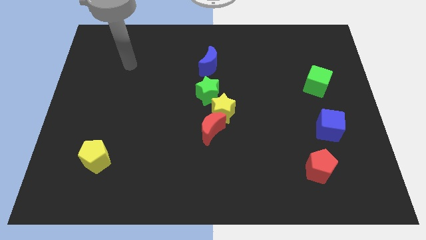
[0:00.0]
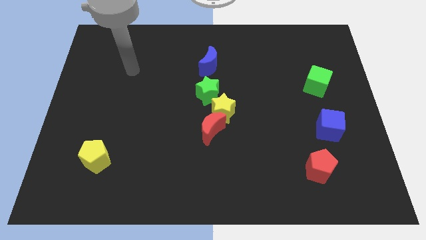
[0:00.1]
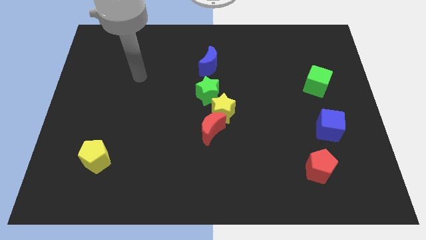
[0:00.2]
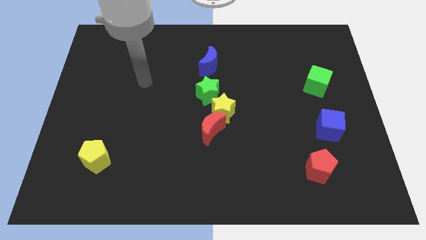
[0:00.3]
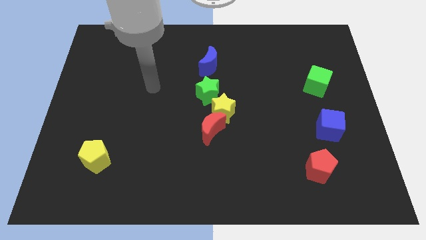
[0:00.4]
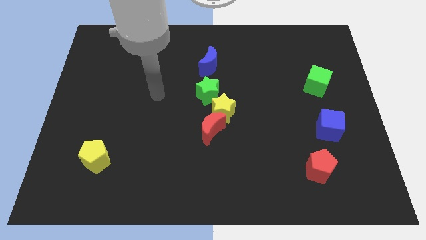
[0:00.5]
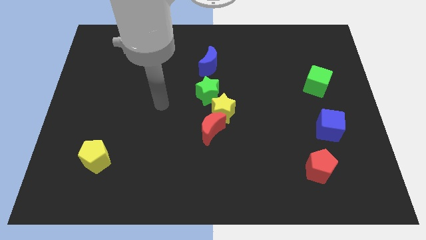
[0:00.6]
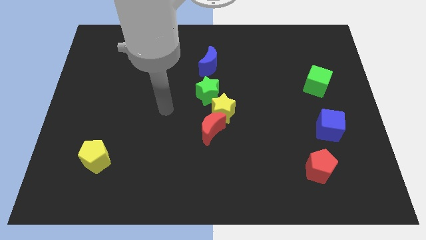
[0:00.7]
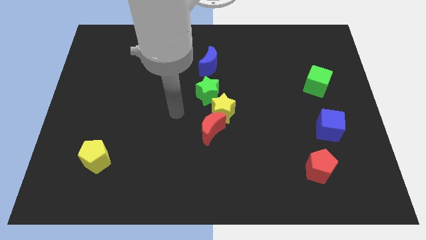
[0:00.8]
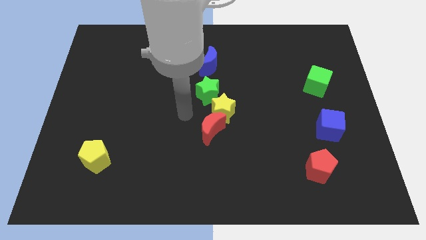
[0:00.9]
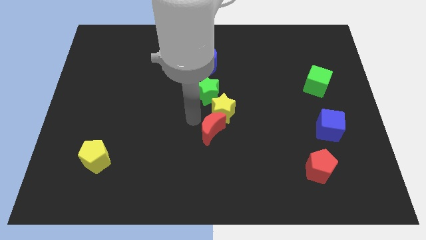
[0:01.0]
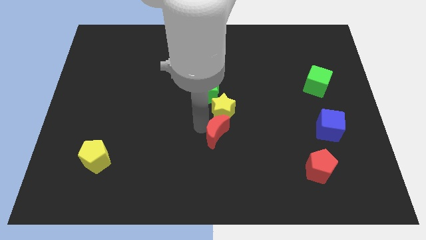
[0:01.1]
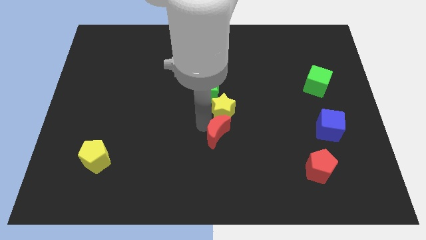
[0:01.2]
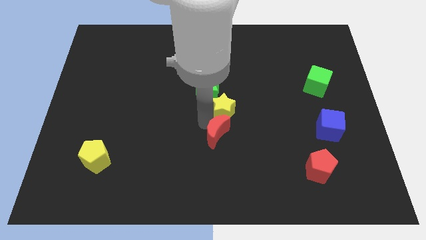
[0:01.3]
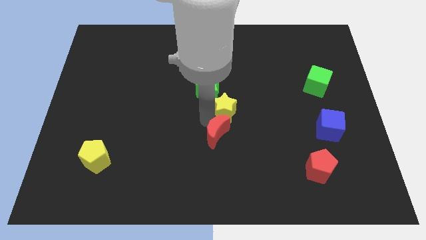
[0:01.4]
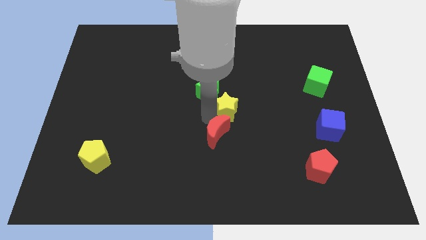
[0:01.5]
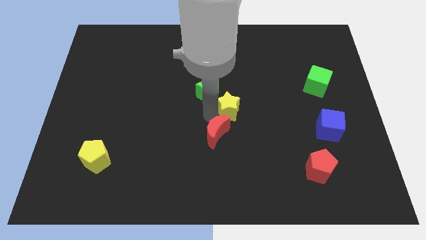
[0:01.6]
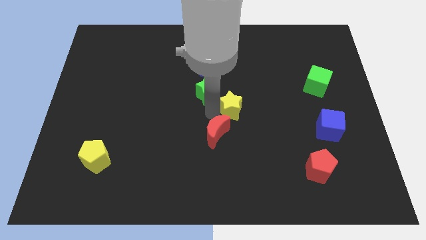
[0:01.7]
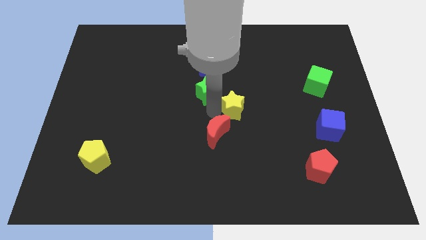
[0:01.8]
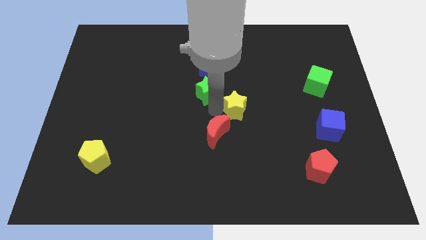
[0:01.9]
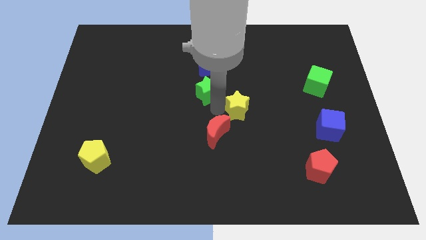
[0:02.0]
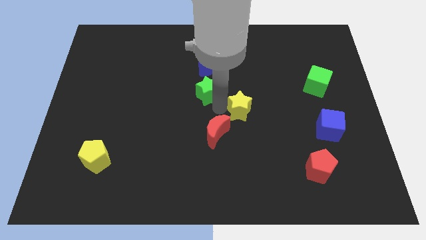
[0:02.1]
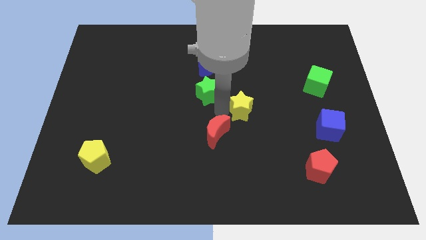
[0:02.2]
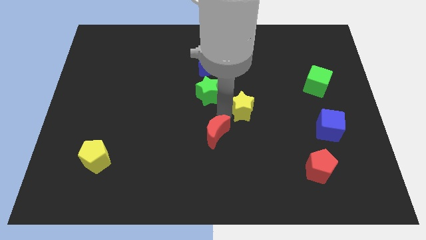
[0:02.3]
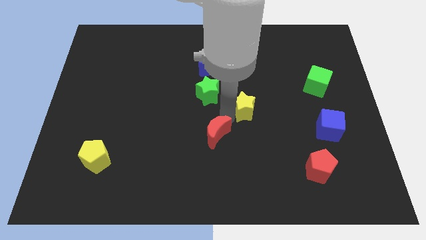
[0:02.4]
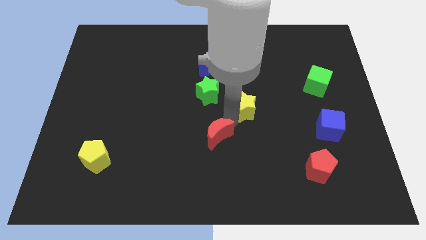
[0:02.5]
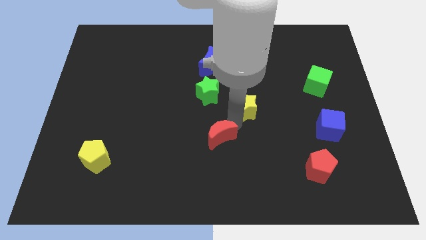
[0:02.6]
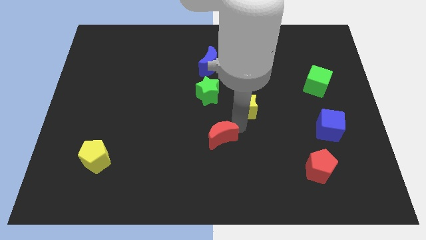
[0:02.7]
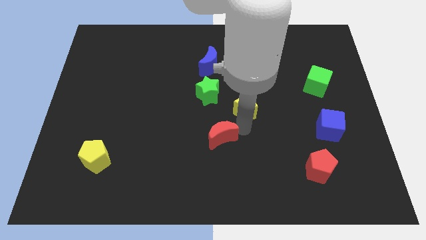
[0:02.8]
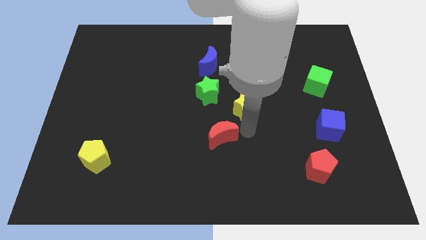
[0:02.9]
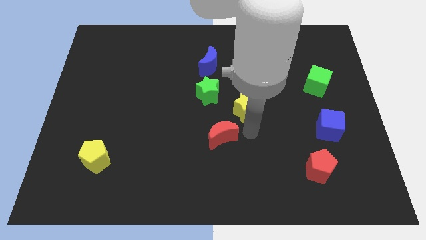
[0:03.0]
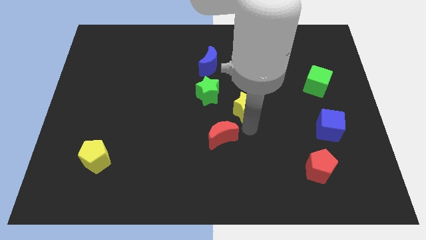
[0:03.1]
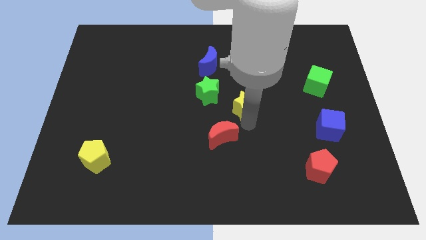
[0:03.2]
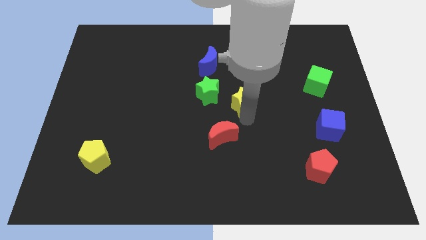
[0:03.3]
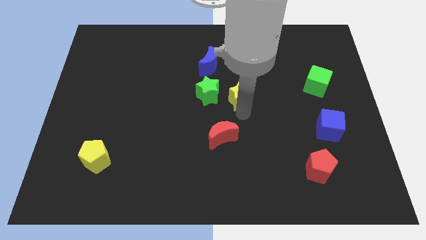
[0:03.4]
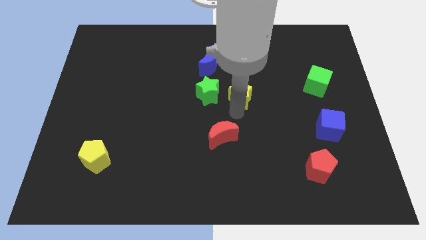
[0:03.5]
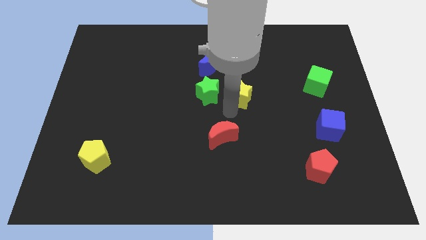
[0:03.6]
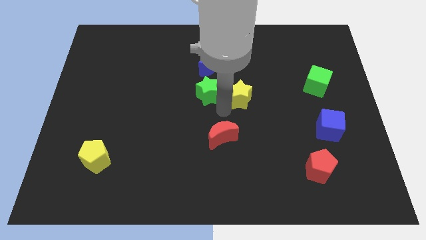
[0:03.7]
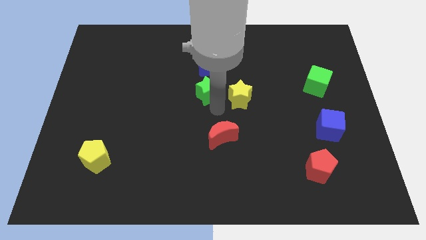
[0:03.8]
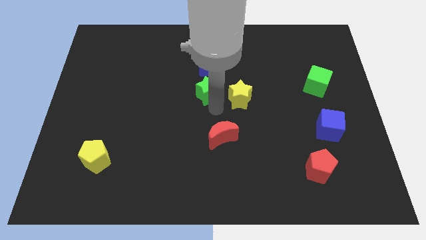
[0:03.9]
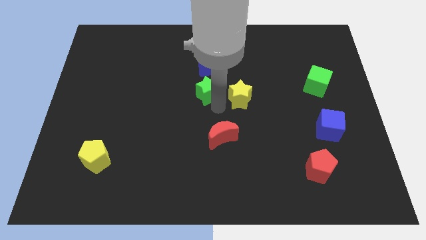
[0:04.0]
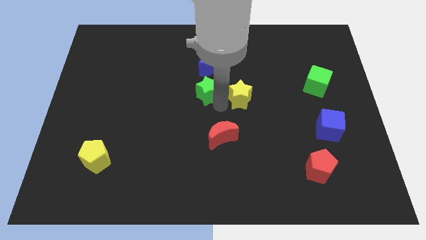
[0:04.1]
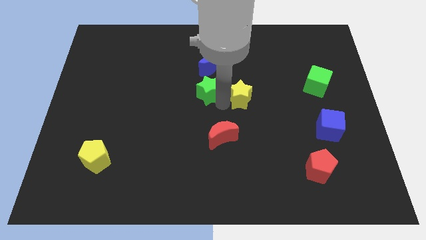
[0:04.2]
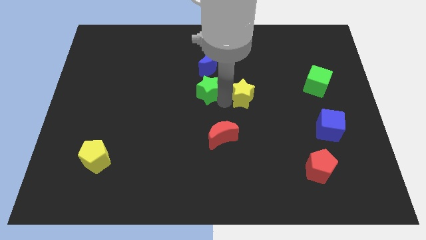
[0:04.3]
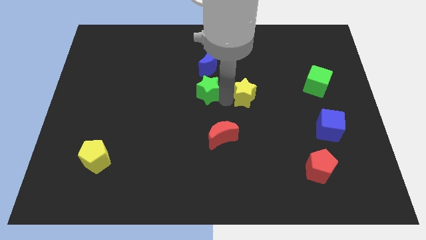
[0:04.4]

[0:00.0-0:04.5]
push the yellow star diagonally upwards and right a little

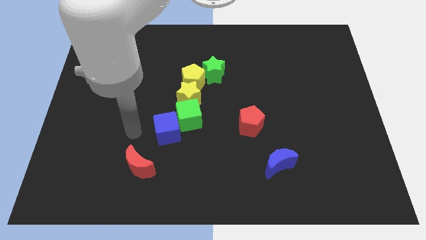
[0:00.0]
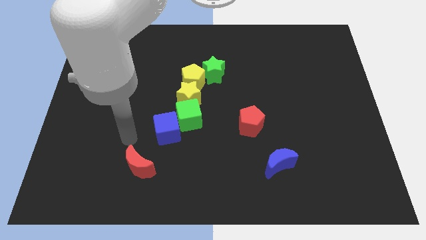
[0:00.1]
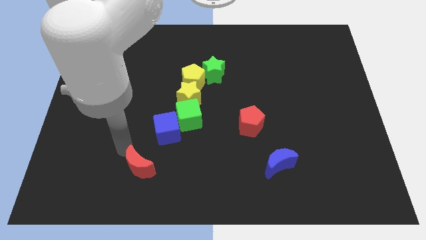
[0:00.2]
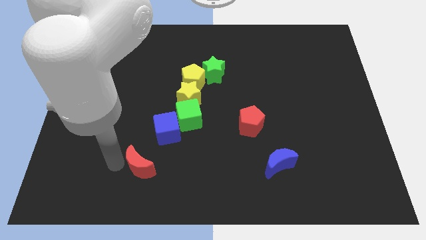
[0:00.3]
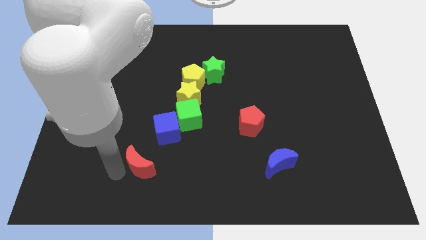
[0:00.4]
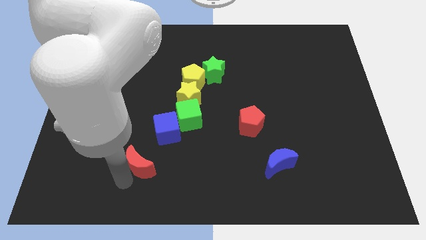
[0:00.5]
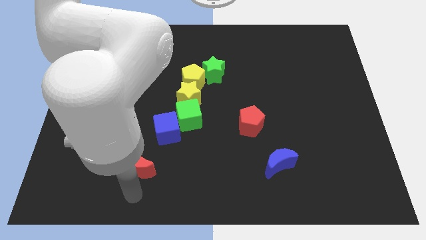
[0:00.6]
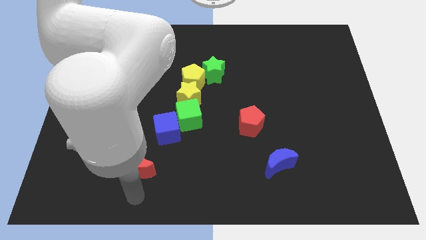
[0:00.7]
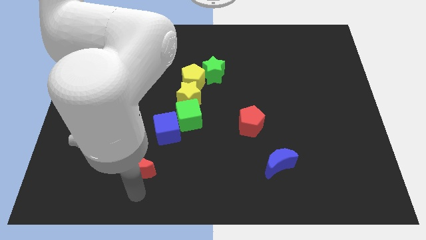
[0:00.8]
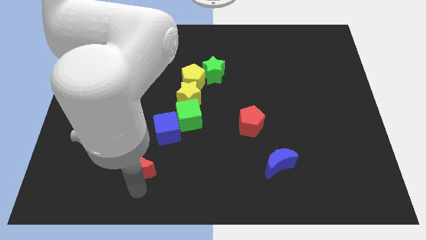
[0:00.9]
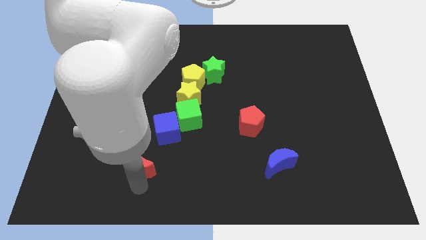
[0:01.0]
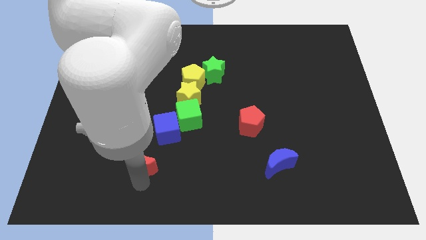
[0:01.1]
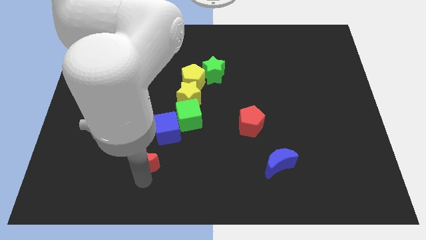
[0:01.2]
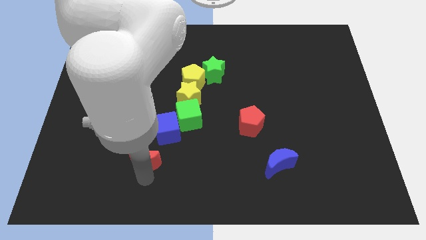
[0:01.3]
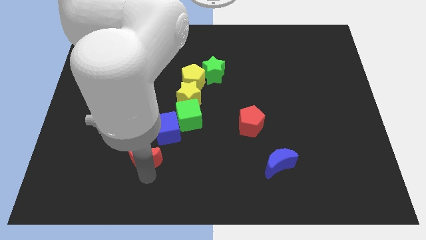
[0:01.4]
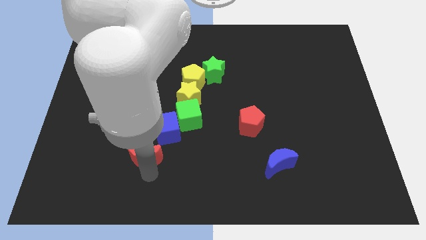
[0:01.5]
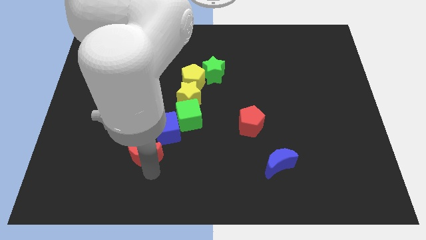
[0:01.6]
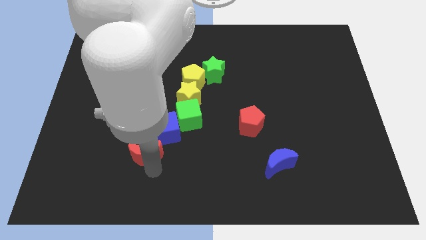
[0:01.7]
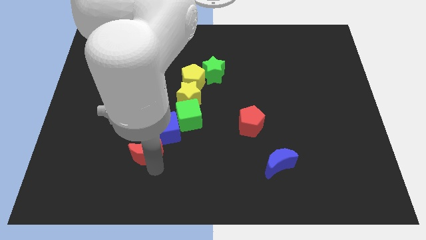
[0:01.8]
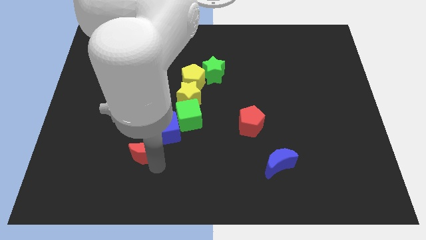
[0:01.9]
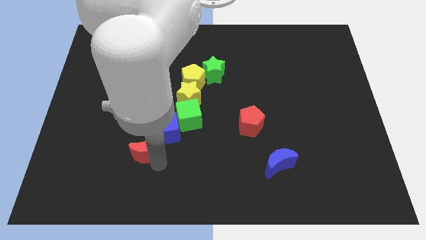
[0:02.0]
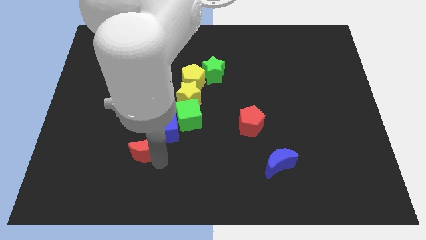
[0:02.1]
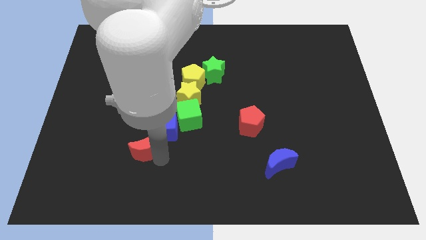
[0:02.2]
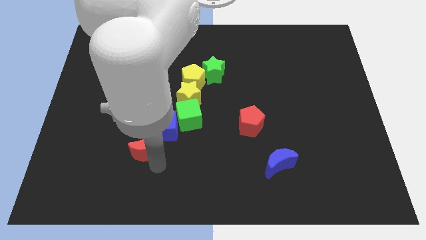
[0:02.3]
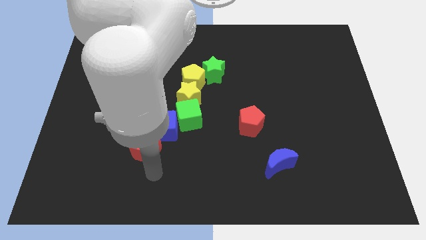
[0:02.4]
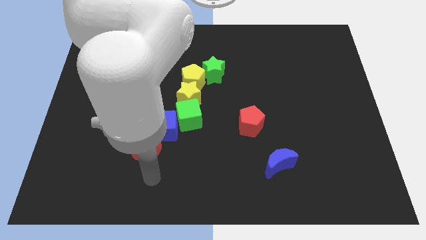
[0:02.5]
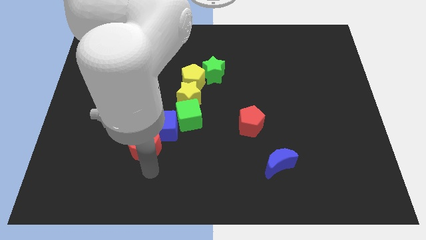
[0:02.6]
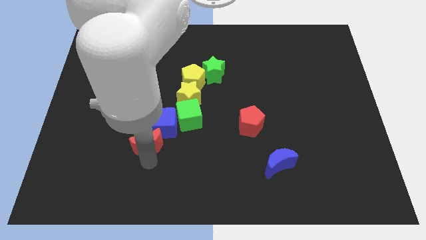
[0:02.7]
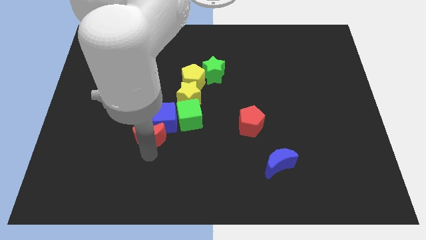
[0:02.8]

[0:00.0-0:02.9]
move the red moon upwards a bit

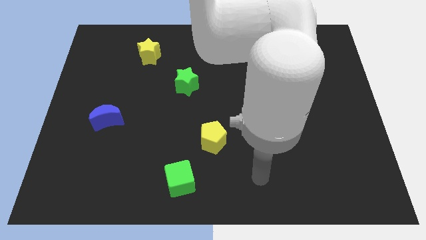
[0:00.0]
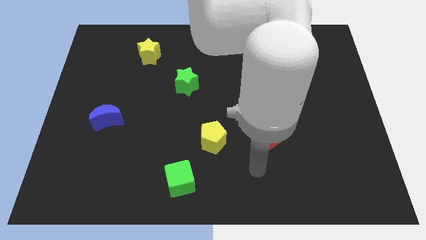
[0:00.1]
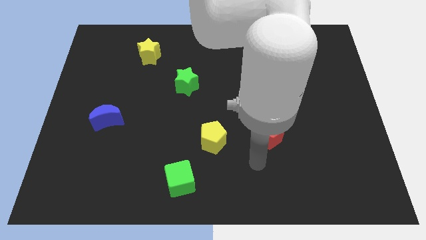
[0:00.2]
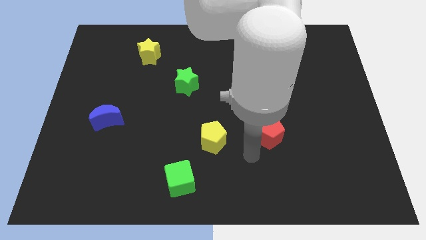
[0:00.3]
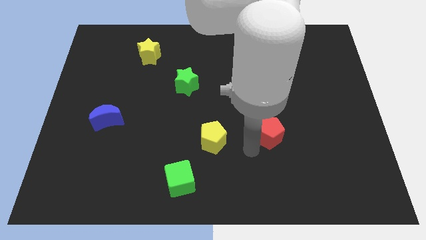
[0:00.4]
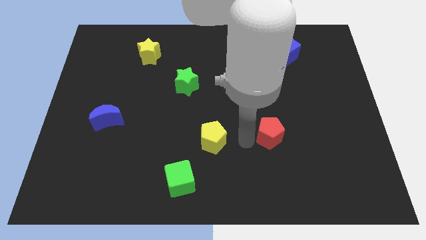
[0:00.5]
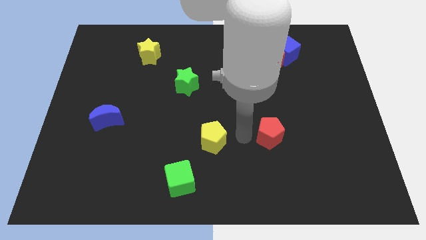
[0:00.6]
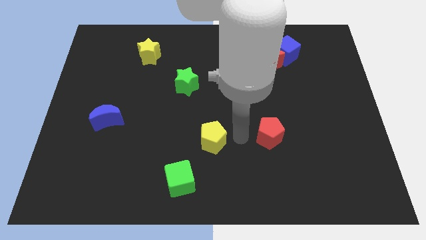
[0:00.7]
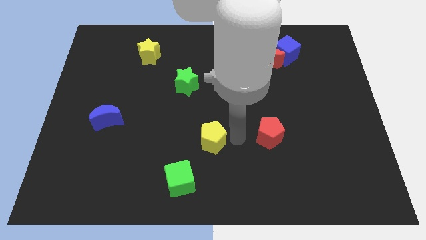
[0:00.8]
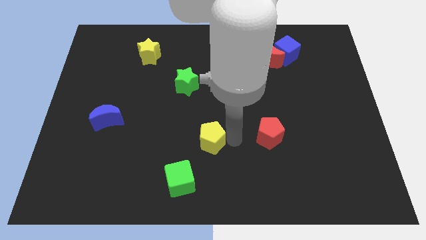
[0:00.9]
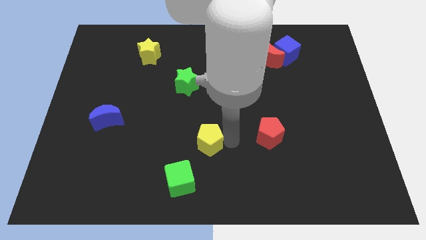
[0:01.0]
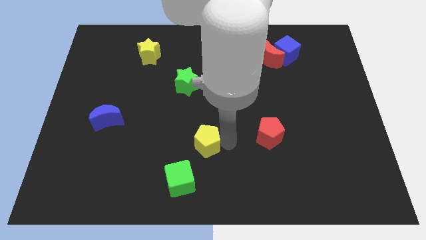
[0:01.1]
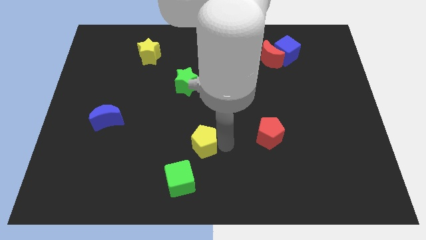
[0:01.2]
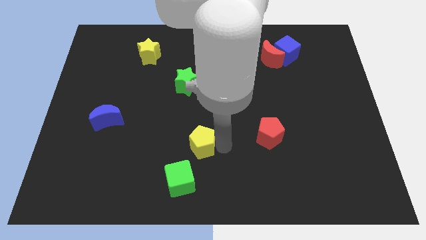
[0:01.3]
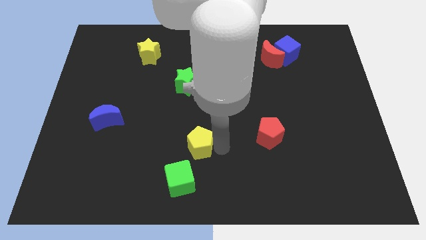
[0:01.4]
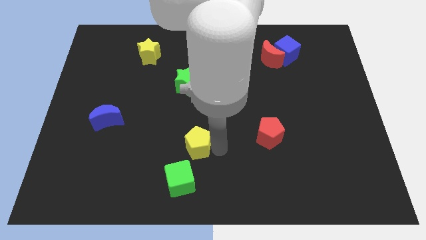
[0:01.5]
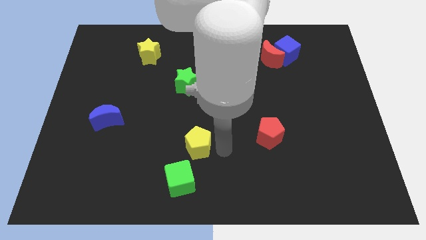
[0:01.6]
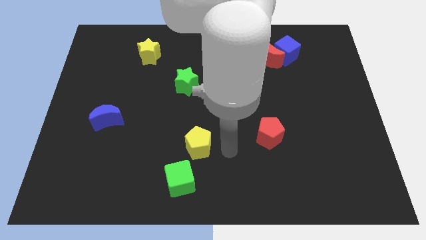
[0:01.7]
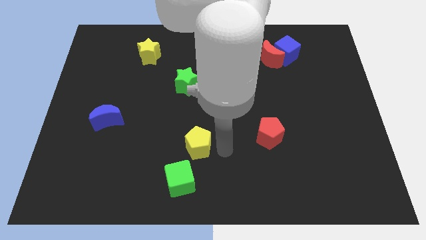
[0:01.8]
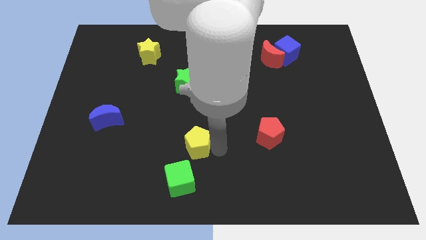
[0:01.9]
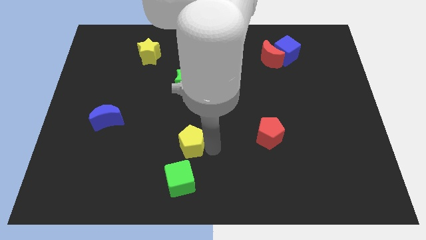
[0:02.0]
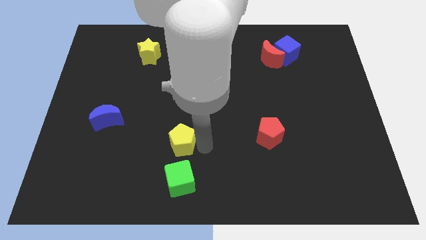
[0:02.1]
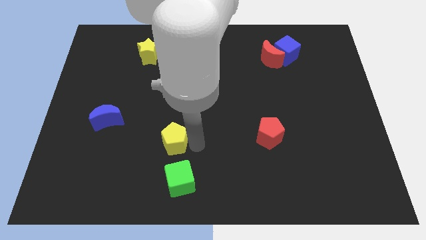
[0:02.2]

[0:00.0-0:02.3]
push the yellow pentagon slightly left
